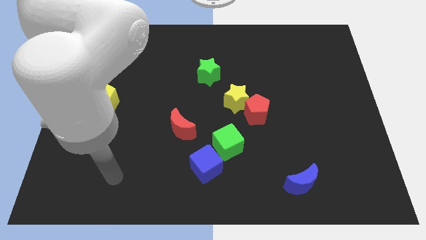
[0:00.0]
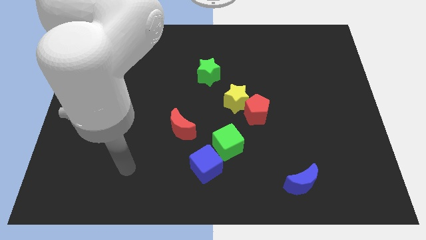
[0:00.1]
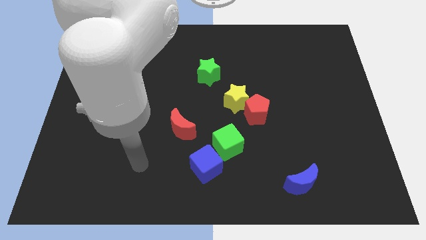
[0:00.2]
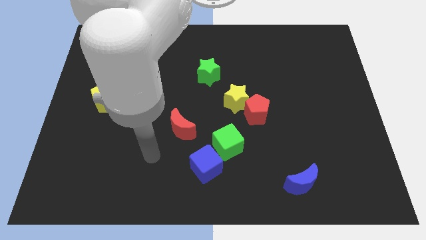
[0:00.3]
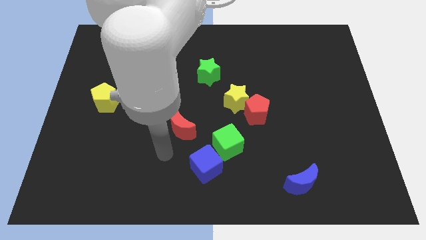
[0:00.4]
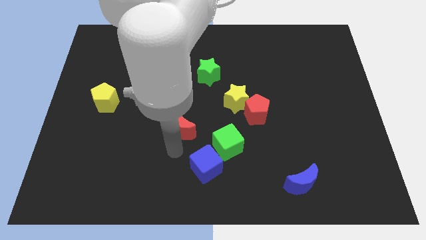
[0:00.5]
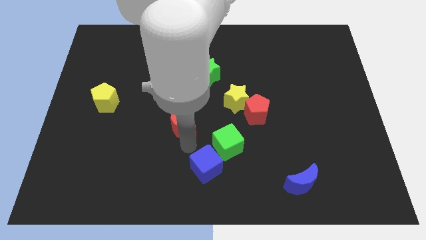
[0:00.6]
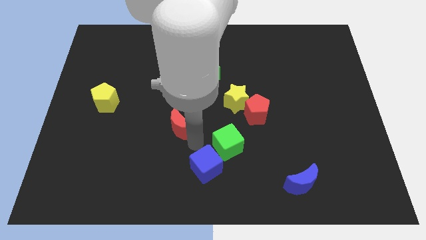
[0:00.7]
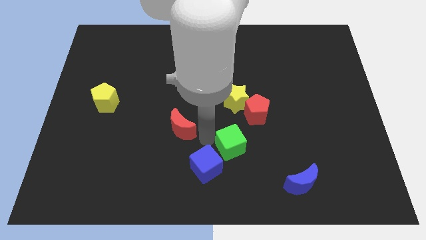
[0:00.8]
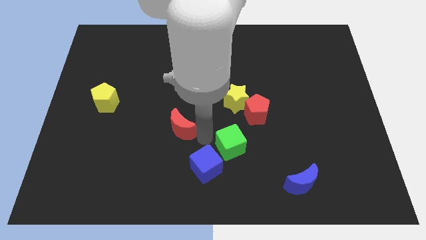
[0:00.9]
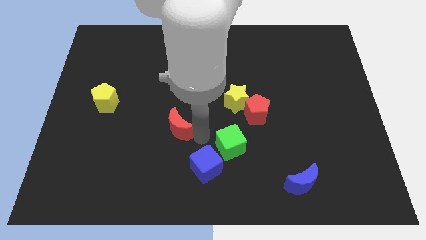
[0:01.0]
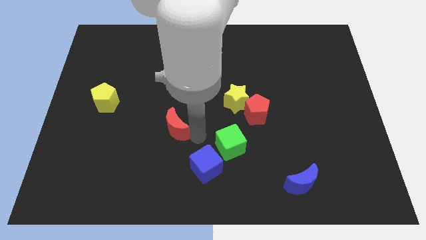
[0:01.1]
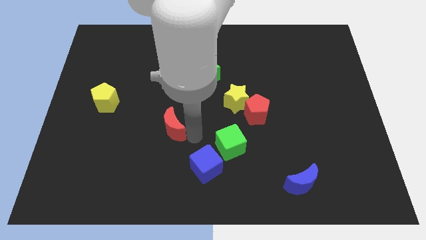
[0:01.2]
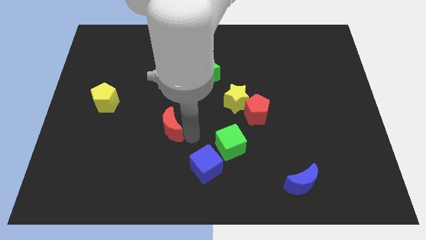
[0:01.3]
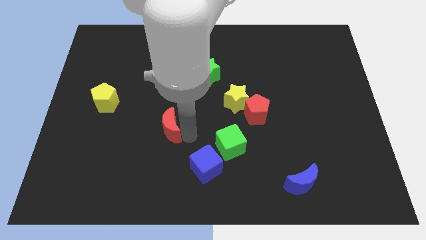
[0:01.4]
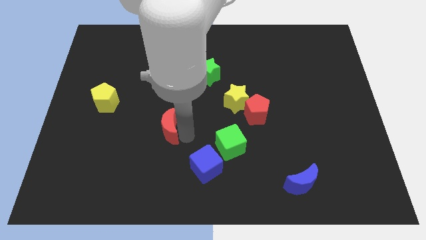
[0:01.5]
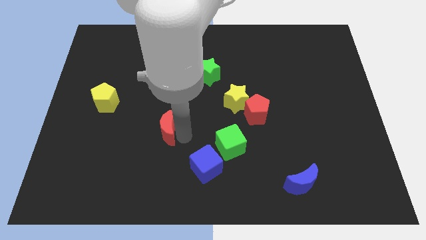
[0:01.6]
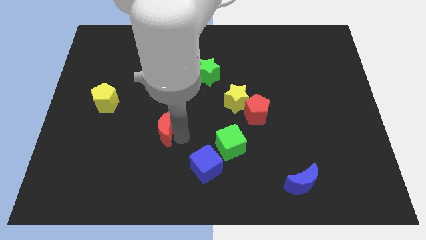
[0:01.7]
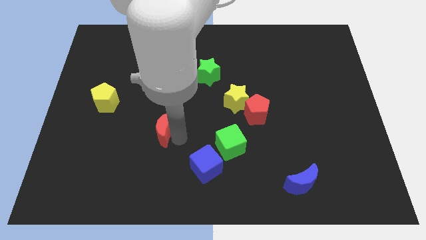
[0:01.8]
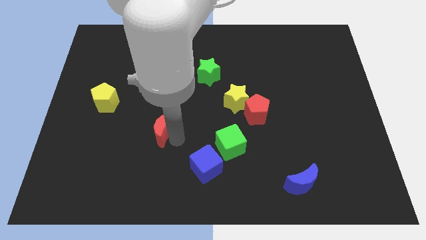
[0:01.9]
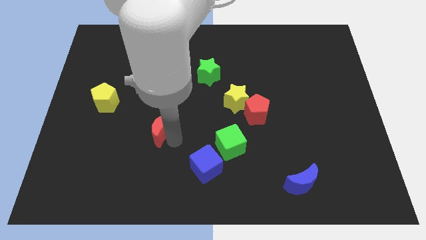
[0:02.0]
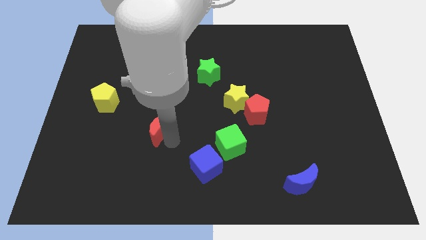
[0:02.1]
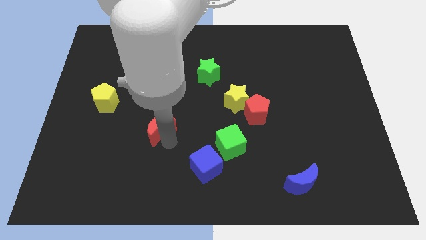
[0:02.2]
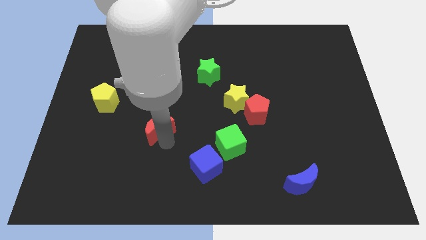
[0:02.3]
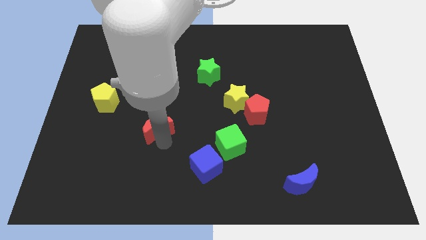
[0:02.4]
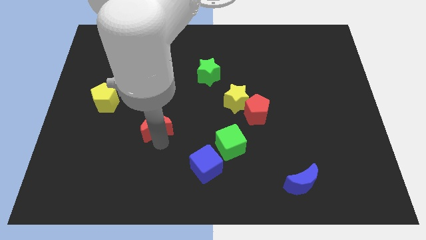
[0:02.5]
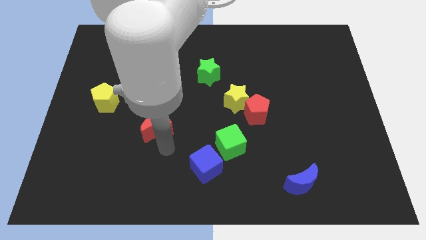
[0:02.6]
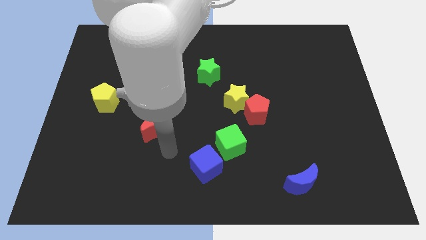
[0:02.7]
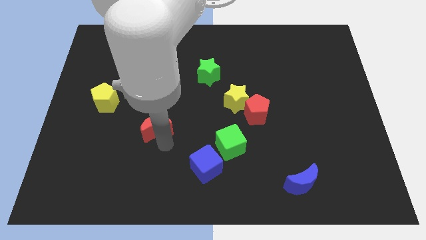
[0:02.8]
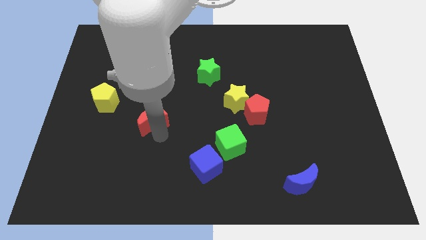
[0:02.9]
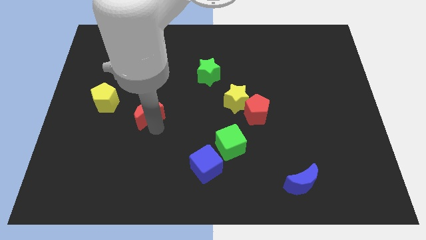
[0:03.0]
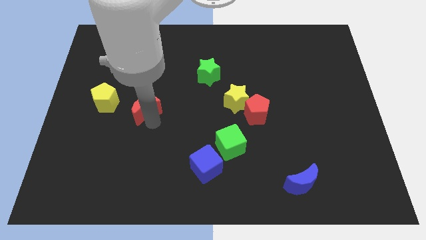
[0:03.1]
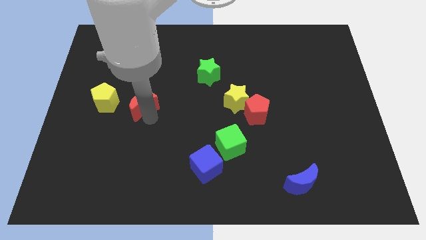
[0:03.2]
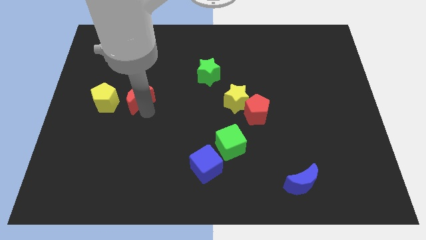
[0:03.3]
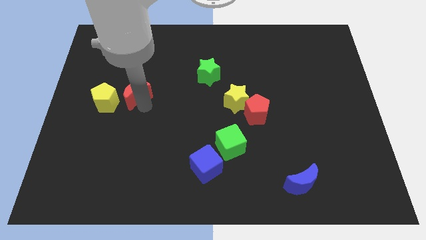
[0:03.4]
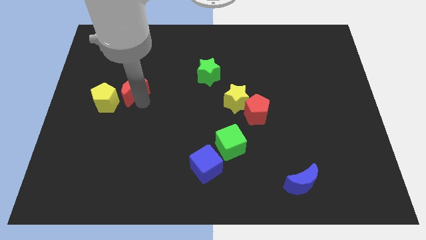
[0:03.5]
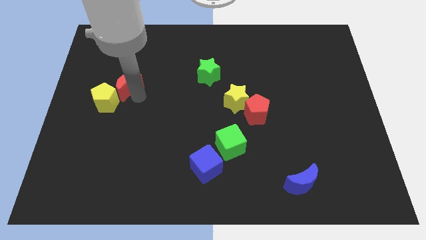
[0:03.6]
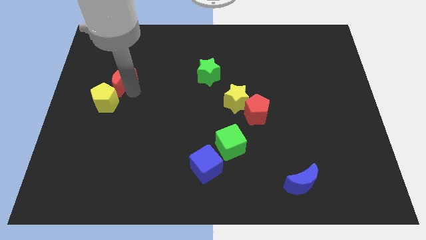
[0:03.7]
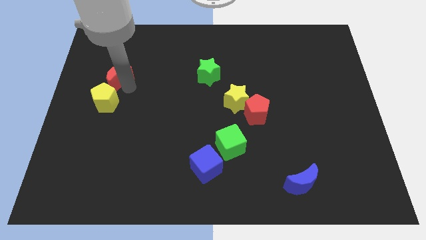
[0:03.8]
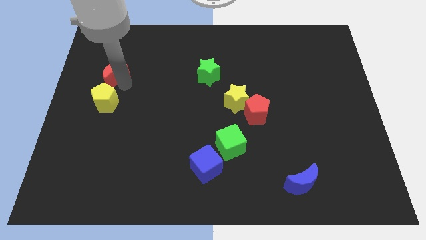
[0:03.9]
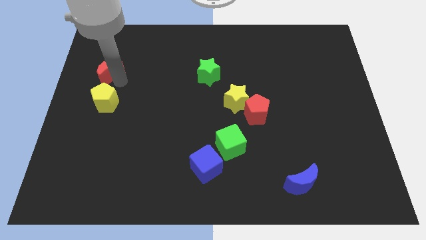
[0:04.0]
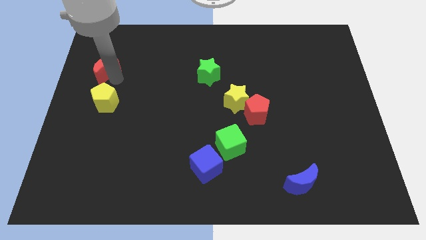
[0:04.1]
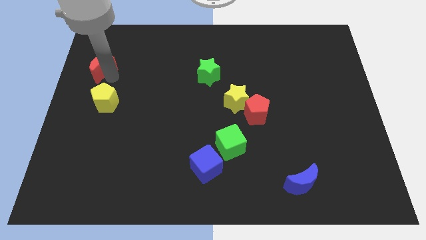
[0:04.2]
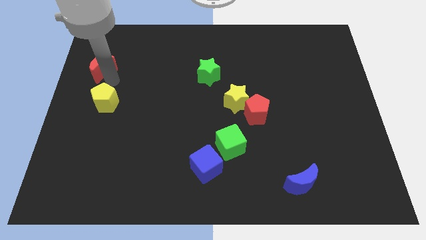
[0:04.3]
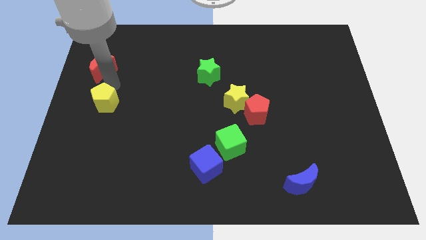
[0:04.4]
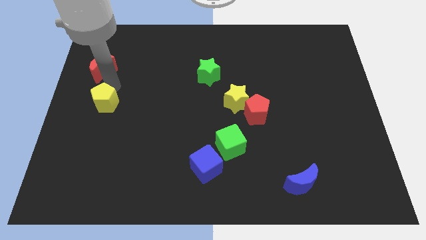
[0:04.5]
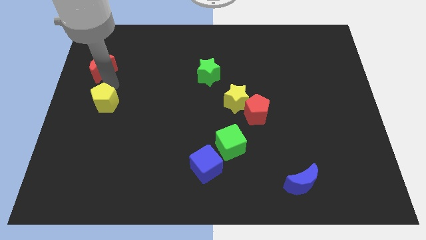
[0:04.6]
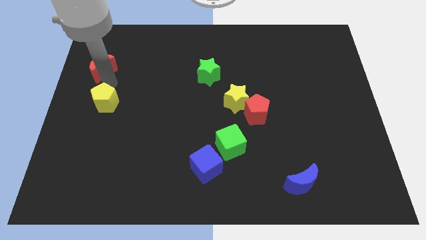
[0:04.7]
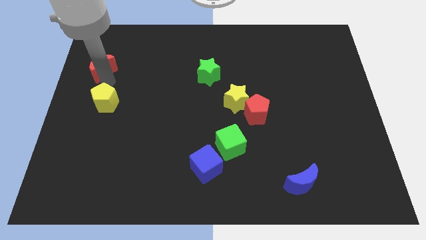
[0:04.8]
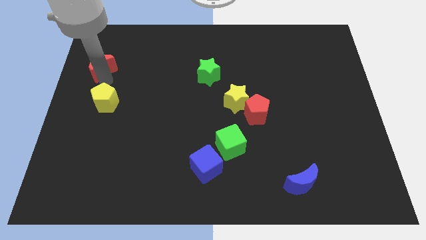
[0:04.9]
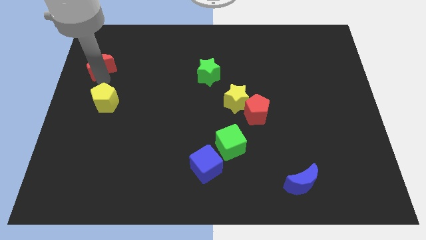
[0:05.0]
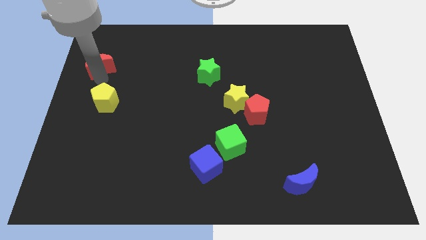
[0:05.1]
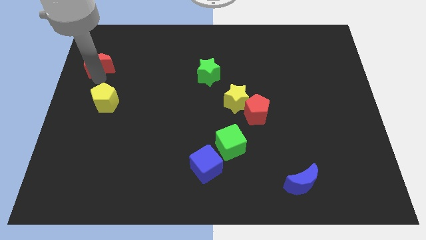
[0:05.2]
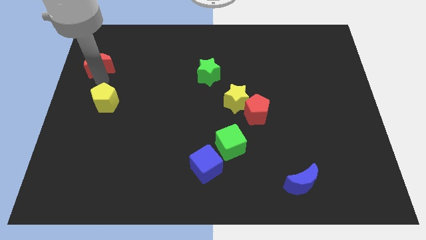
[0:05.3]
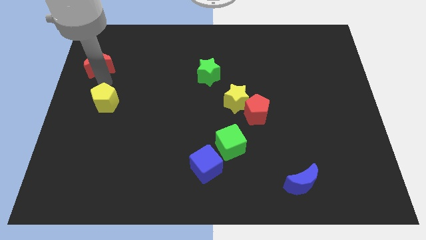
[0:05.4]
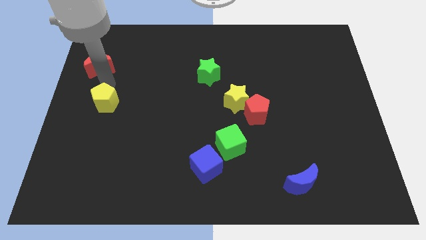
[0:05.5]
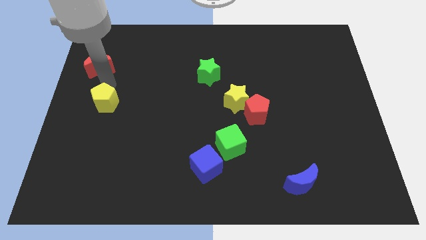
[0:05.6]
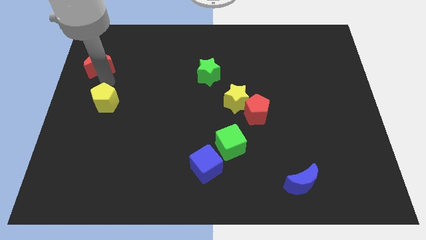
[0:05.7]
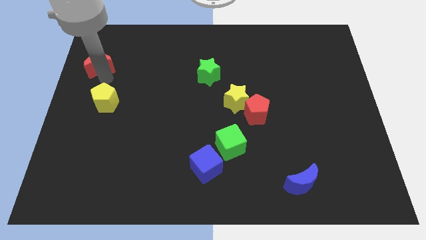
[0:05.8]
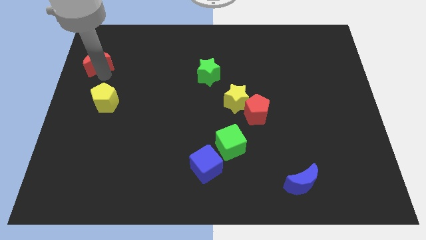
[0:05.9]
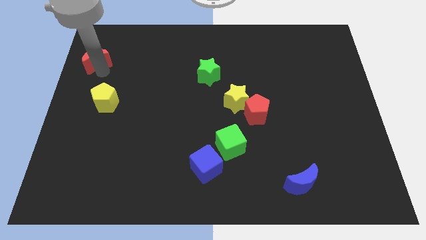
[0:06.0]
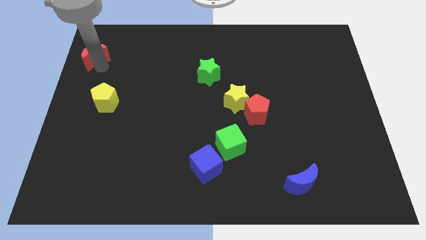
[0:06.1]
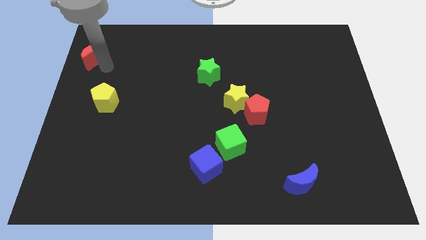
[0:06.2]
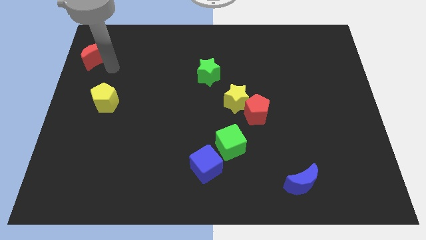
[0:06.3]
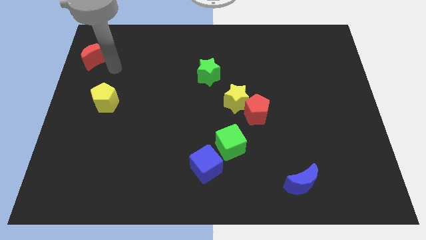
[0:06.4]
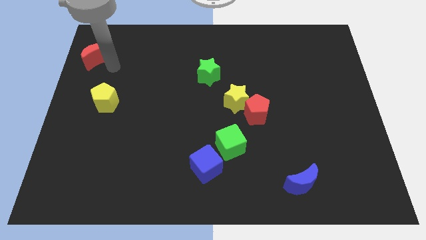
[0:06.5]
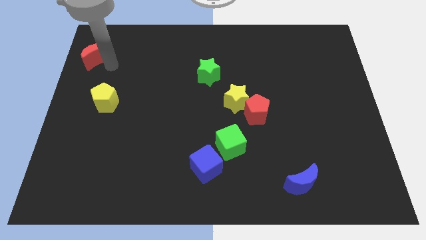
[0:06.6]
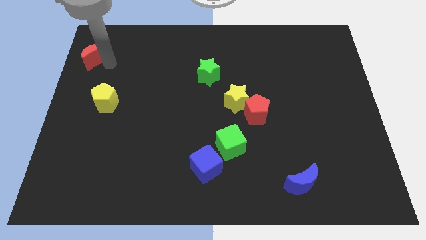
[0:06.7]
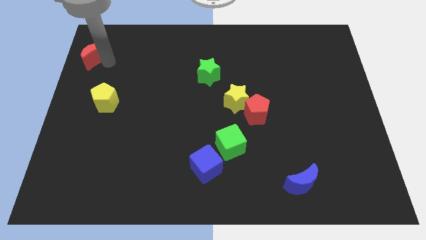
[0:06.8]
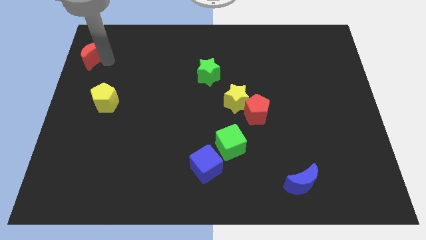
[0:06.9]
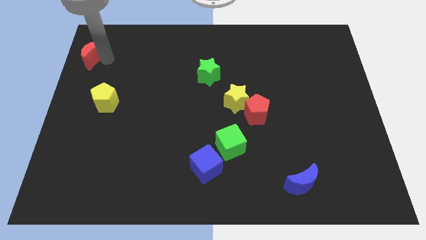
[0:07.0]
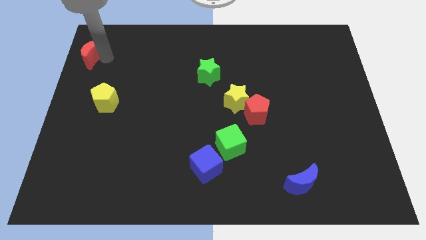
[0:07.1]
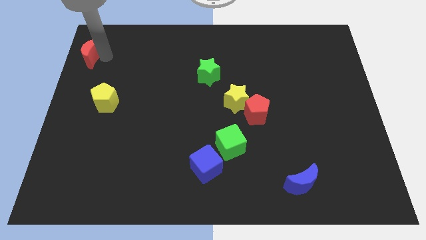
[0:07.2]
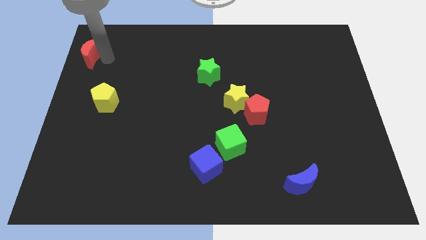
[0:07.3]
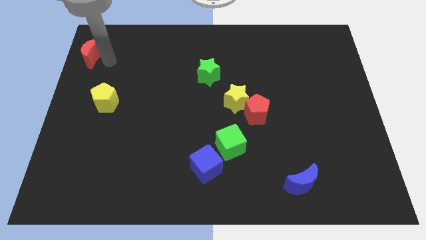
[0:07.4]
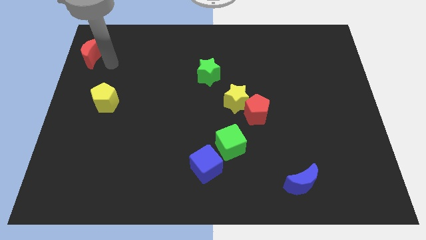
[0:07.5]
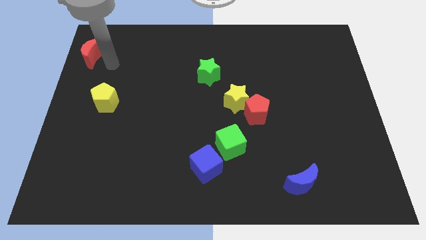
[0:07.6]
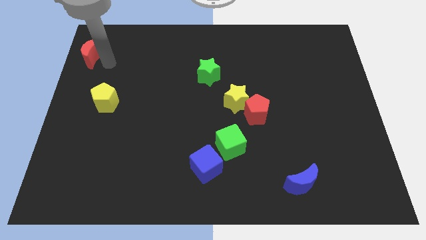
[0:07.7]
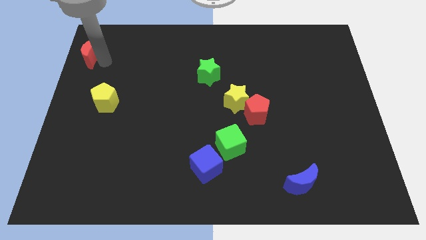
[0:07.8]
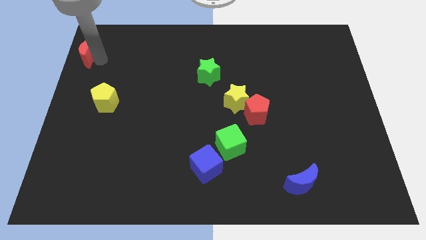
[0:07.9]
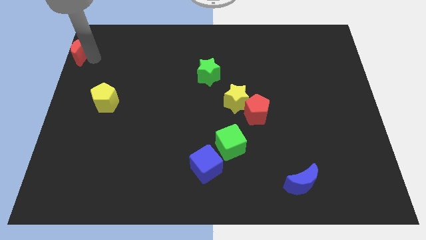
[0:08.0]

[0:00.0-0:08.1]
move the red moon to the top left
